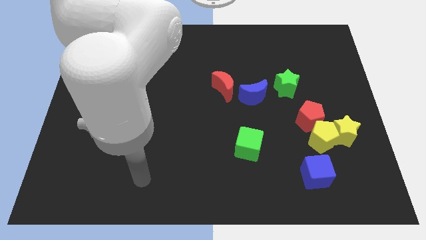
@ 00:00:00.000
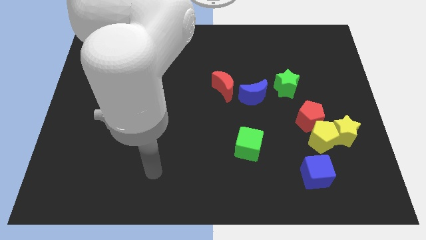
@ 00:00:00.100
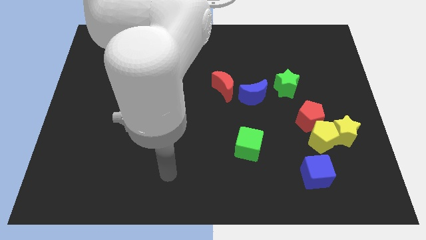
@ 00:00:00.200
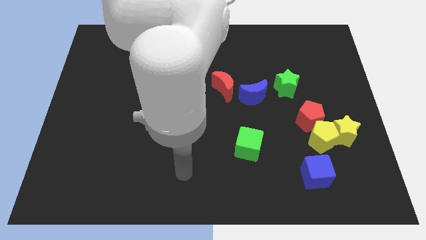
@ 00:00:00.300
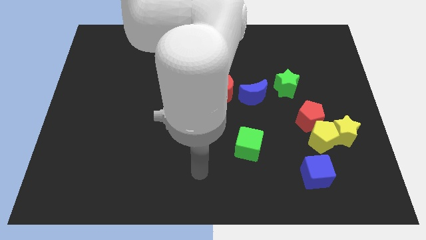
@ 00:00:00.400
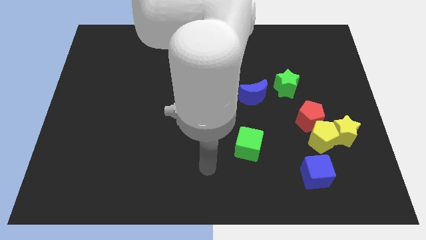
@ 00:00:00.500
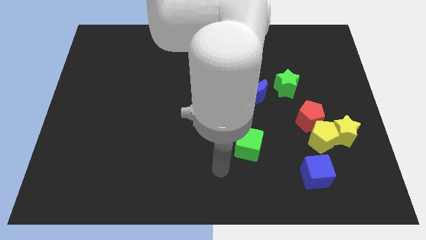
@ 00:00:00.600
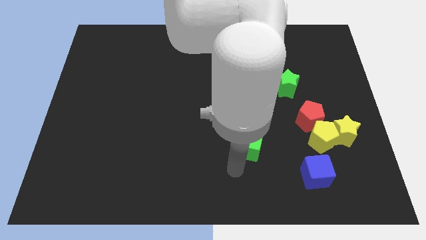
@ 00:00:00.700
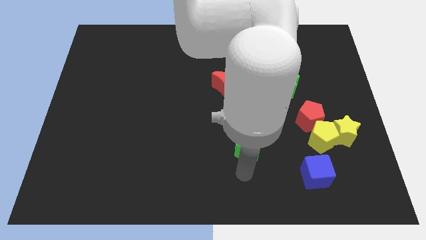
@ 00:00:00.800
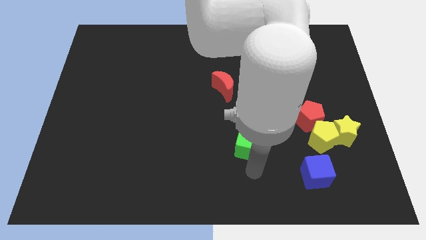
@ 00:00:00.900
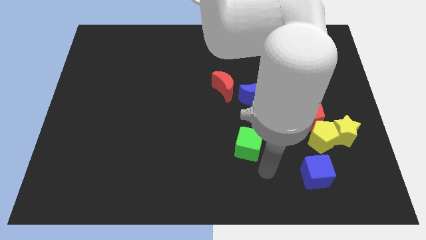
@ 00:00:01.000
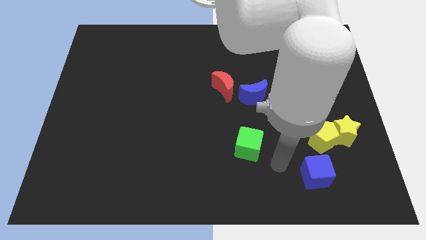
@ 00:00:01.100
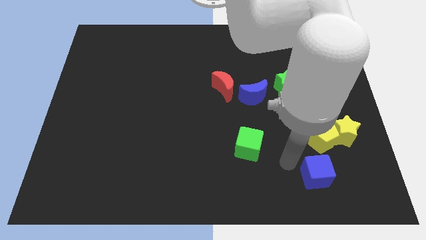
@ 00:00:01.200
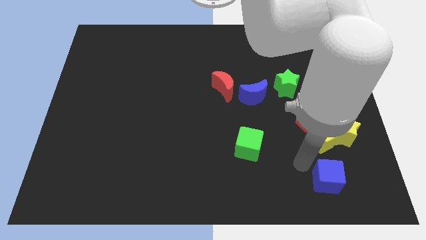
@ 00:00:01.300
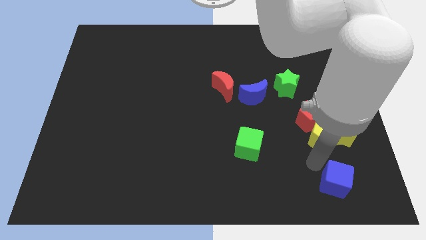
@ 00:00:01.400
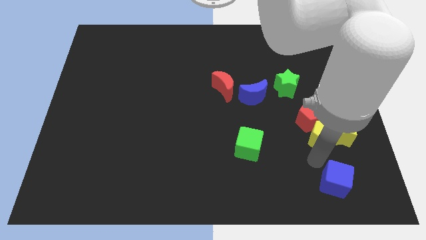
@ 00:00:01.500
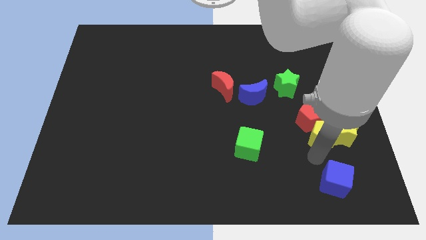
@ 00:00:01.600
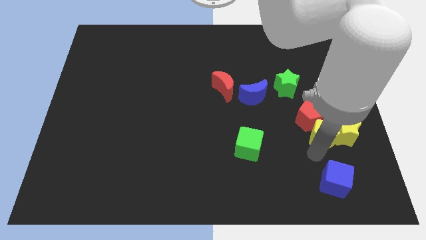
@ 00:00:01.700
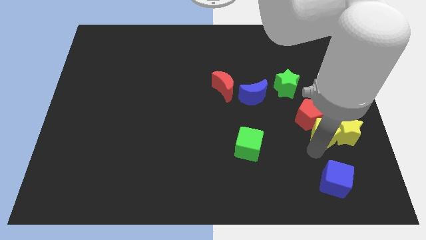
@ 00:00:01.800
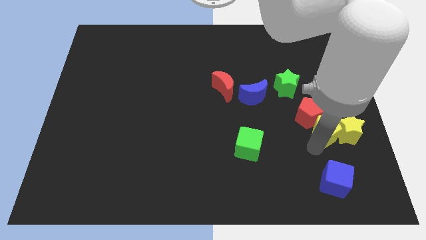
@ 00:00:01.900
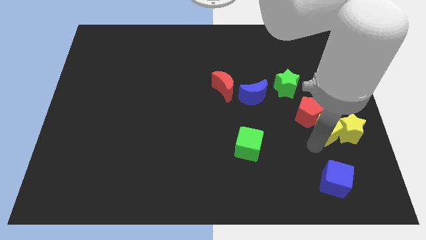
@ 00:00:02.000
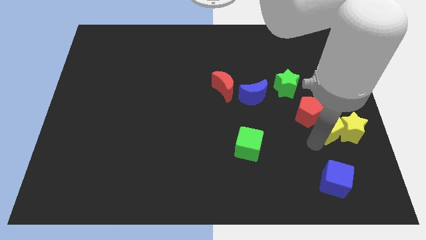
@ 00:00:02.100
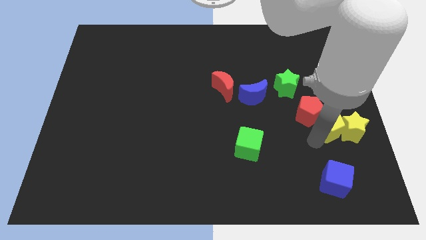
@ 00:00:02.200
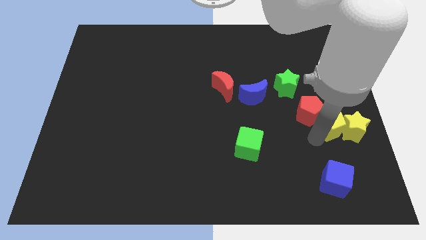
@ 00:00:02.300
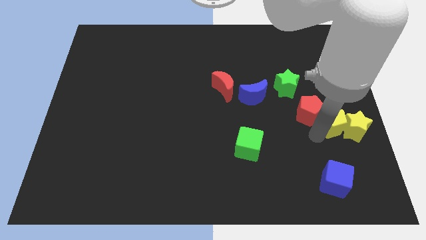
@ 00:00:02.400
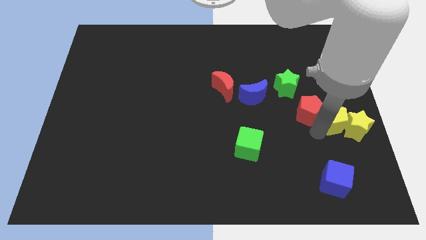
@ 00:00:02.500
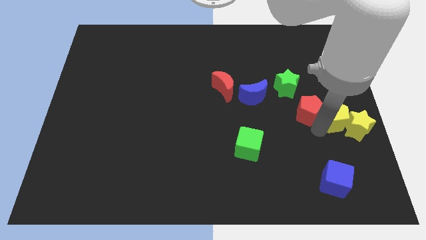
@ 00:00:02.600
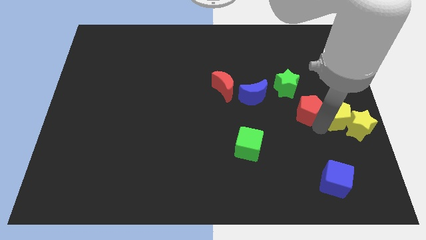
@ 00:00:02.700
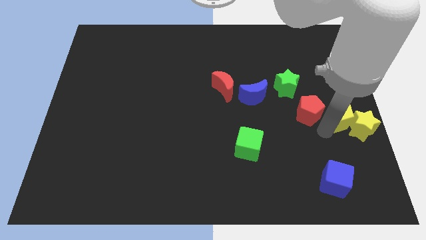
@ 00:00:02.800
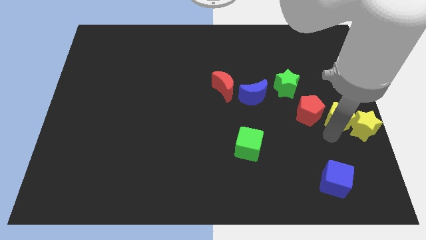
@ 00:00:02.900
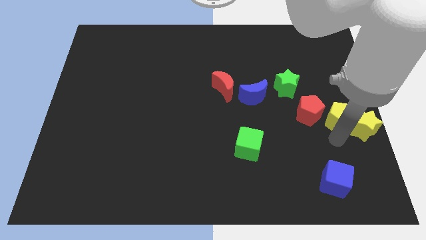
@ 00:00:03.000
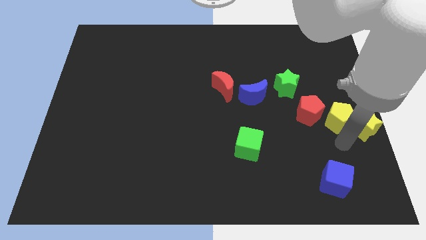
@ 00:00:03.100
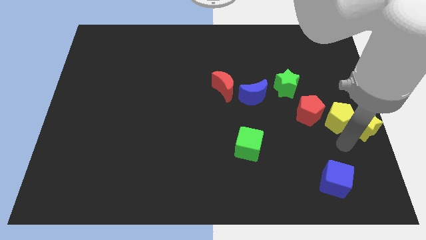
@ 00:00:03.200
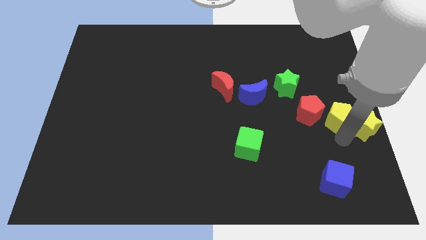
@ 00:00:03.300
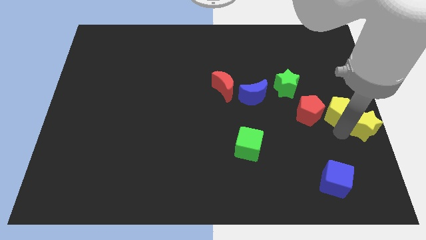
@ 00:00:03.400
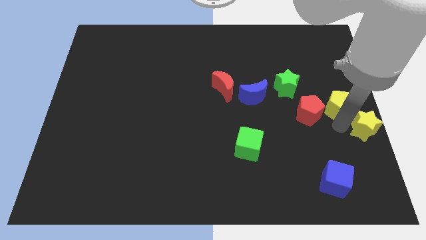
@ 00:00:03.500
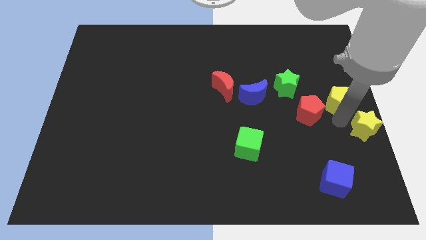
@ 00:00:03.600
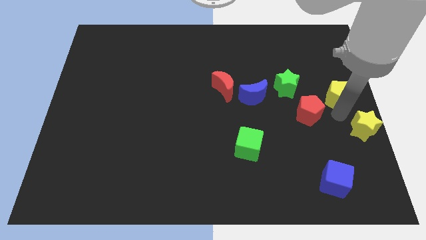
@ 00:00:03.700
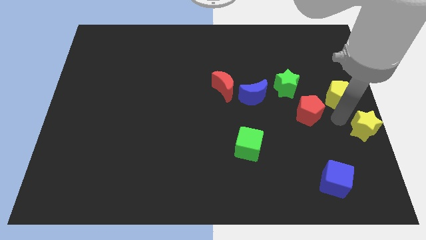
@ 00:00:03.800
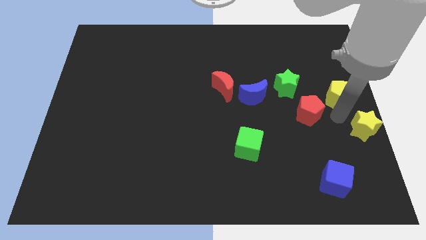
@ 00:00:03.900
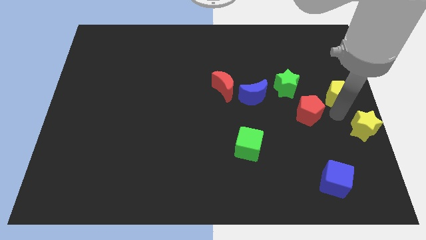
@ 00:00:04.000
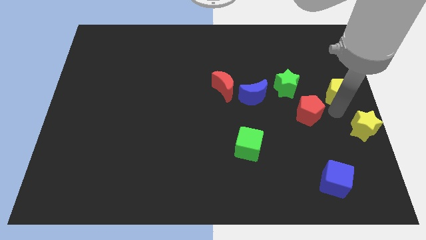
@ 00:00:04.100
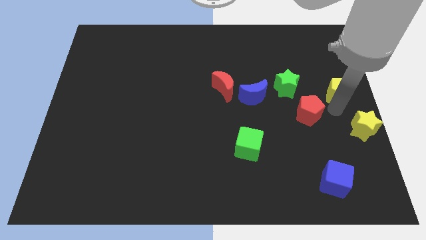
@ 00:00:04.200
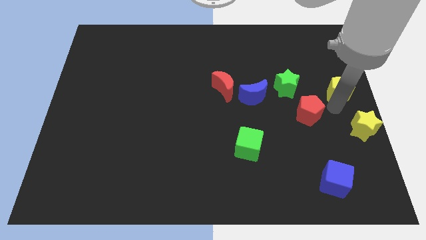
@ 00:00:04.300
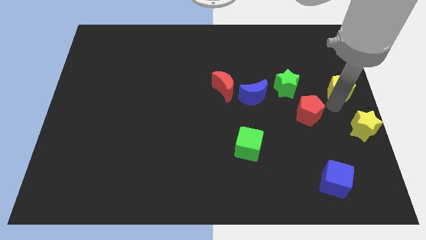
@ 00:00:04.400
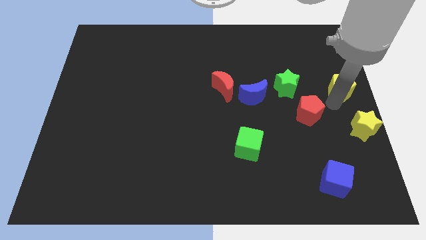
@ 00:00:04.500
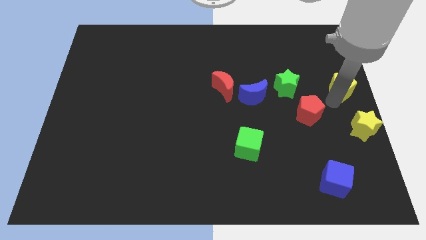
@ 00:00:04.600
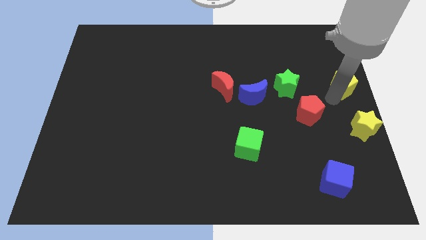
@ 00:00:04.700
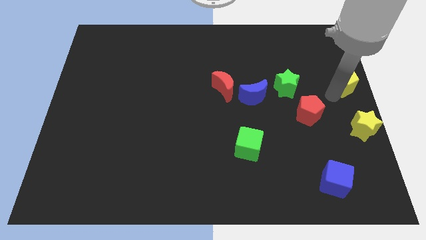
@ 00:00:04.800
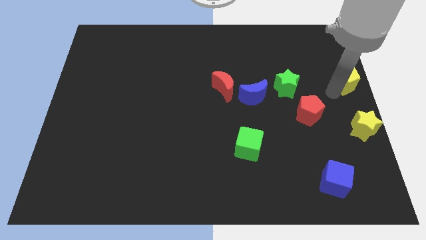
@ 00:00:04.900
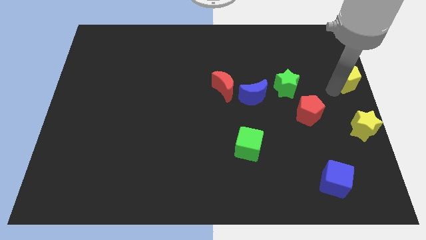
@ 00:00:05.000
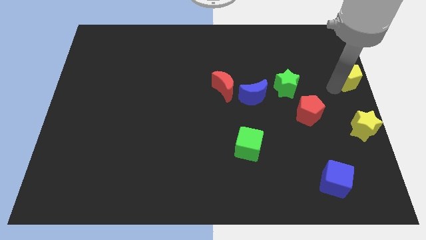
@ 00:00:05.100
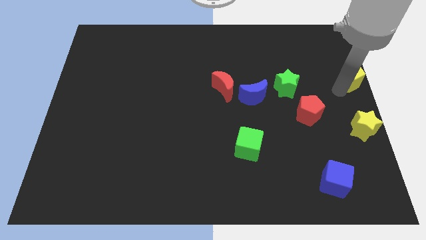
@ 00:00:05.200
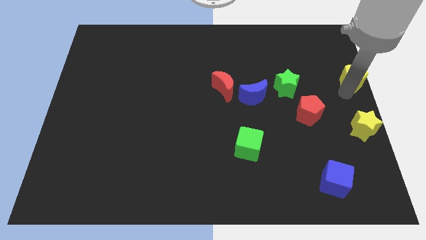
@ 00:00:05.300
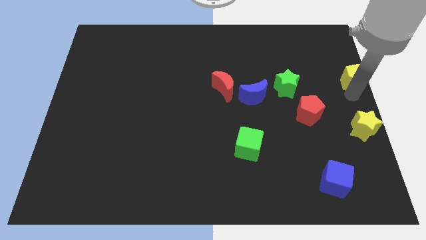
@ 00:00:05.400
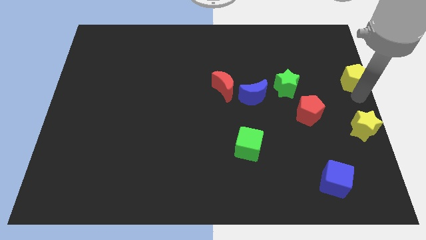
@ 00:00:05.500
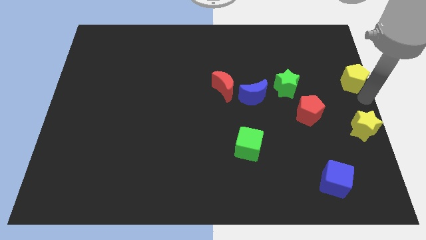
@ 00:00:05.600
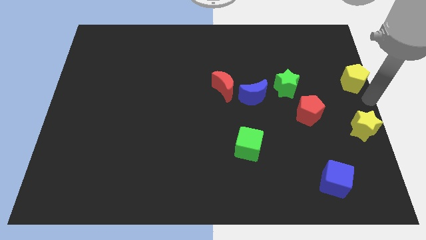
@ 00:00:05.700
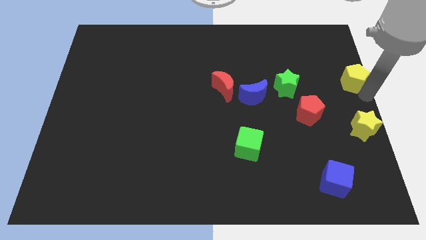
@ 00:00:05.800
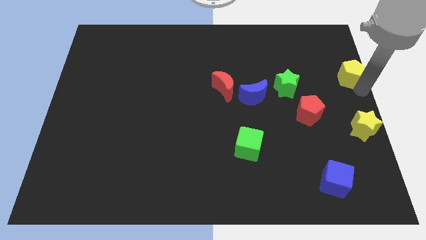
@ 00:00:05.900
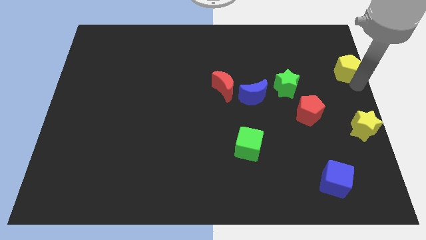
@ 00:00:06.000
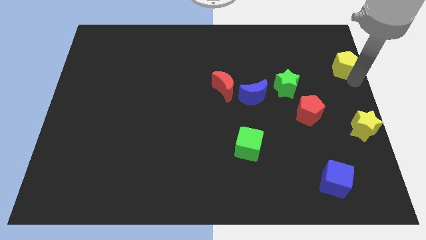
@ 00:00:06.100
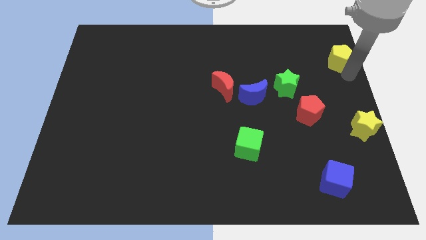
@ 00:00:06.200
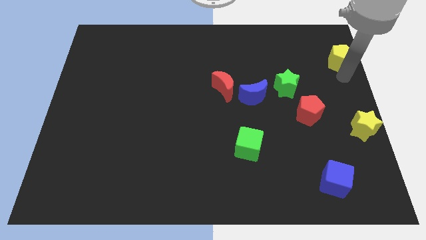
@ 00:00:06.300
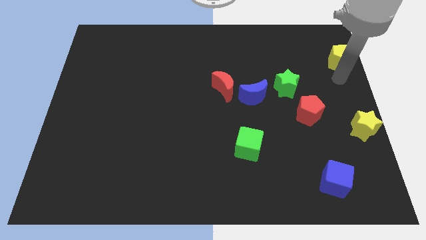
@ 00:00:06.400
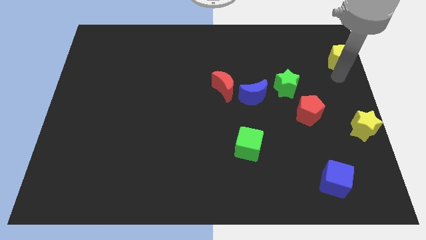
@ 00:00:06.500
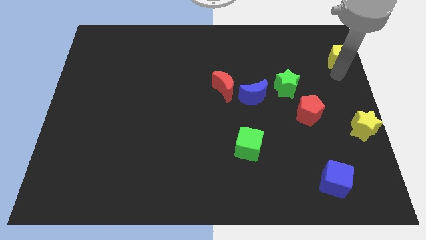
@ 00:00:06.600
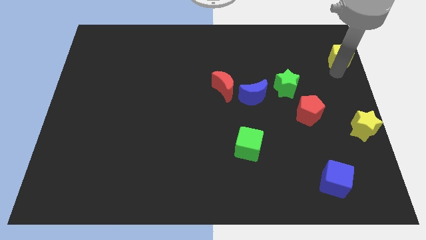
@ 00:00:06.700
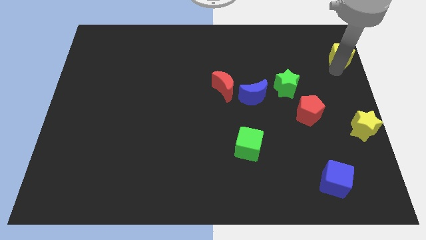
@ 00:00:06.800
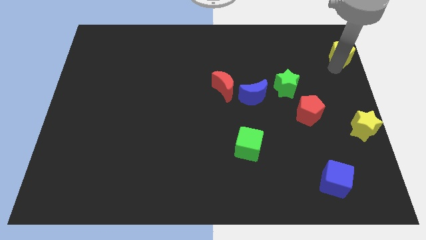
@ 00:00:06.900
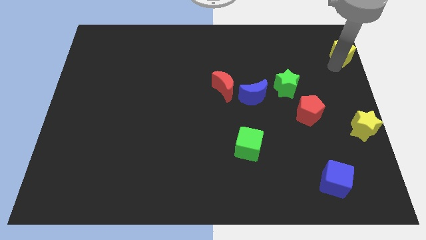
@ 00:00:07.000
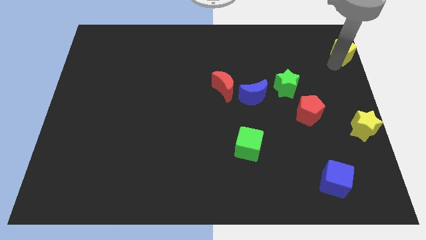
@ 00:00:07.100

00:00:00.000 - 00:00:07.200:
push the yellow pentagon to the top right
